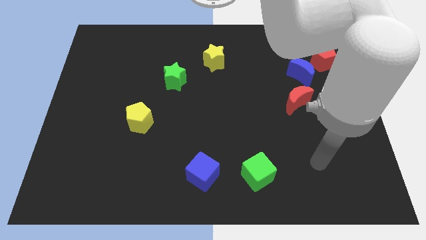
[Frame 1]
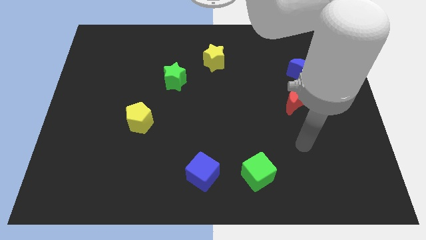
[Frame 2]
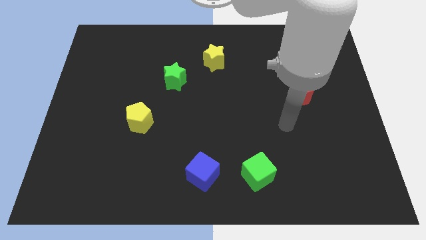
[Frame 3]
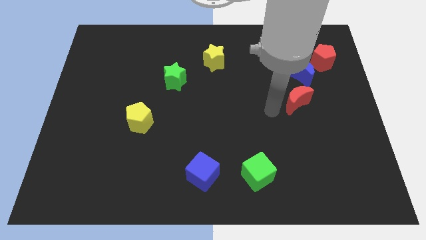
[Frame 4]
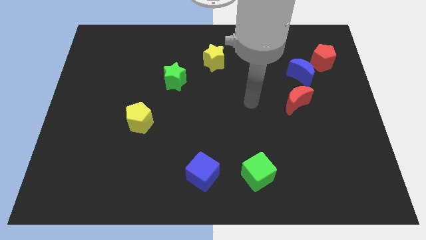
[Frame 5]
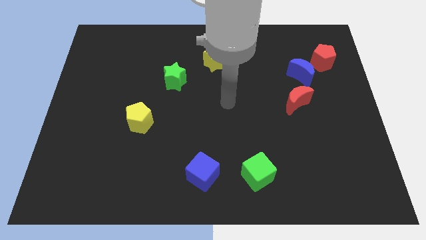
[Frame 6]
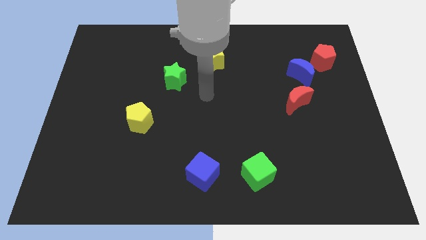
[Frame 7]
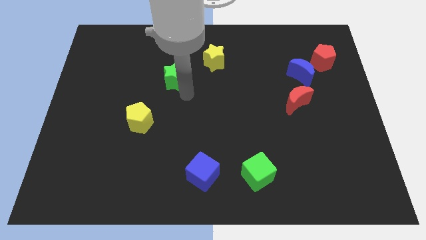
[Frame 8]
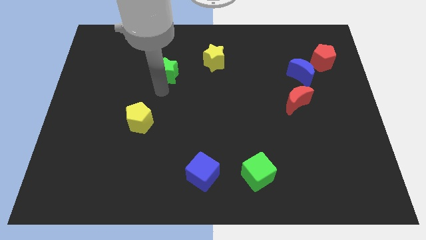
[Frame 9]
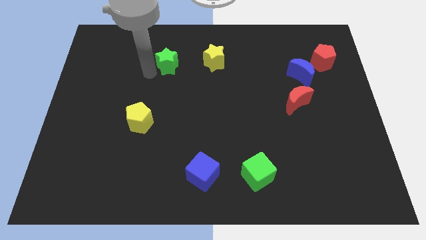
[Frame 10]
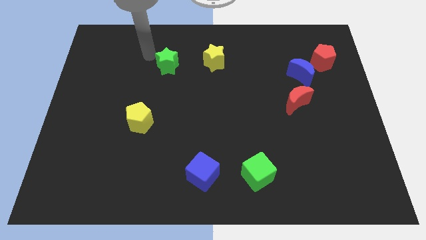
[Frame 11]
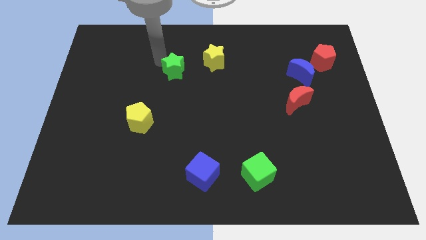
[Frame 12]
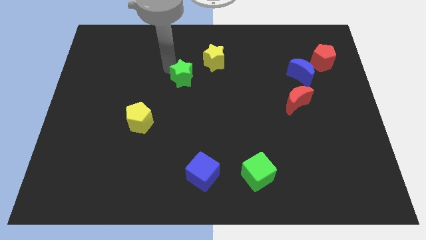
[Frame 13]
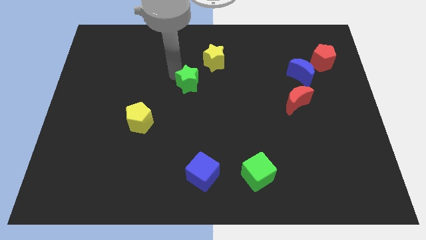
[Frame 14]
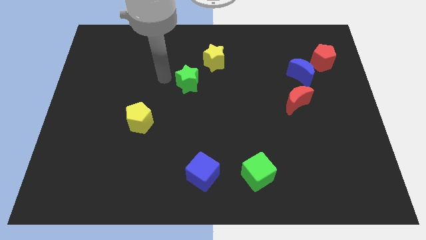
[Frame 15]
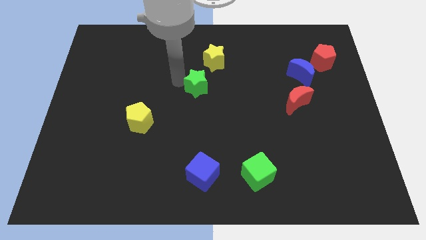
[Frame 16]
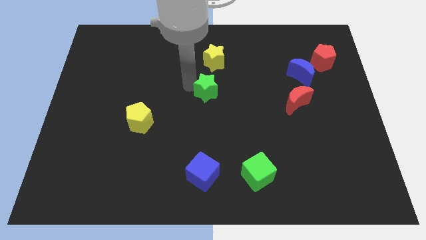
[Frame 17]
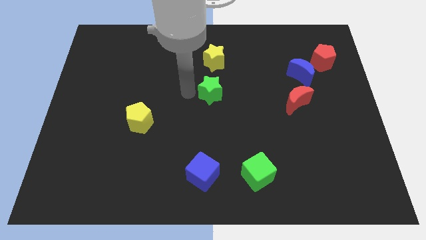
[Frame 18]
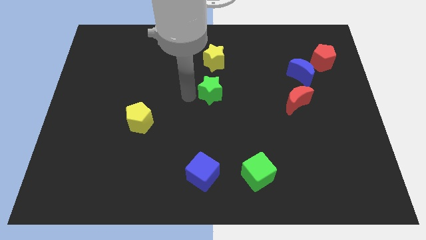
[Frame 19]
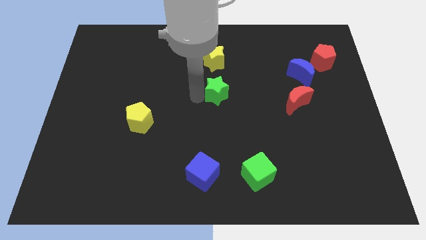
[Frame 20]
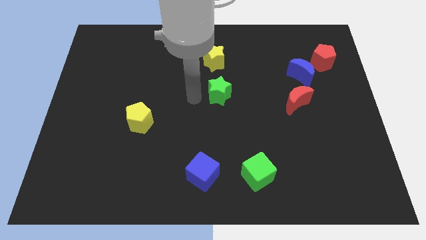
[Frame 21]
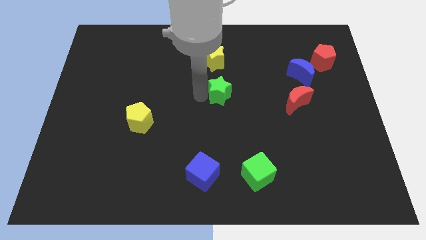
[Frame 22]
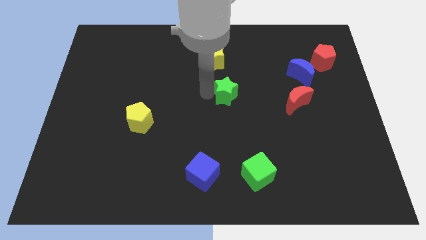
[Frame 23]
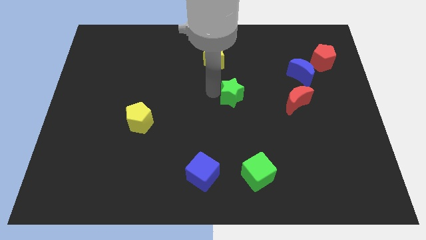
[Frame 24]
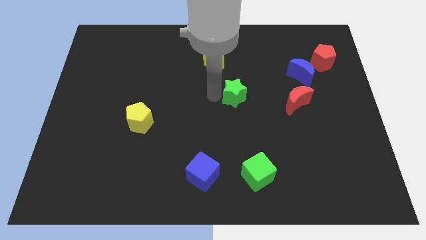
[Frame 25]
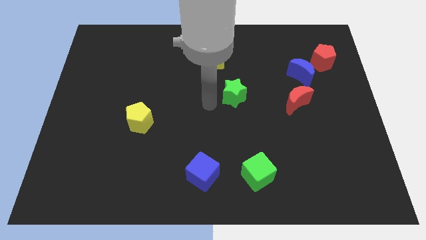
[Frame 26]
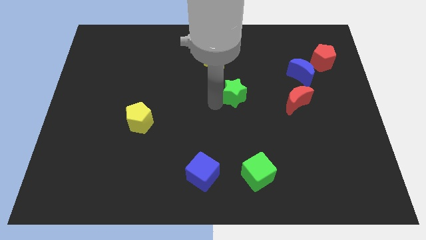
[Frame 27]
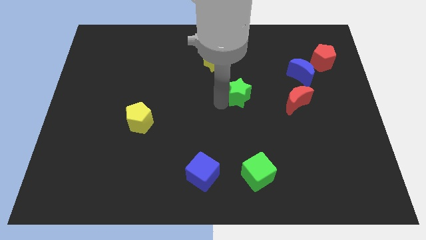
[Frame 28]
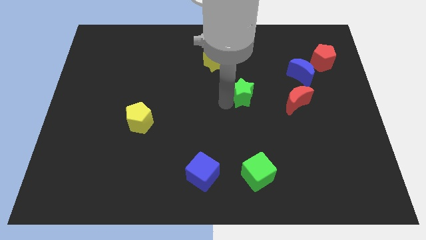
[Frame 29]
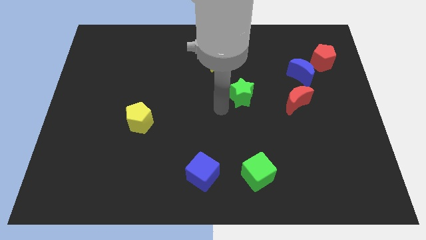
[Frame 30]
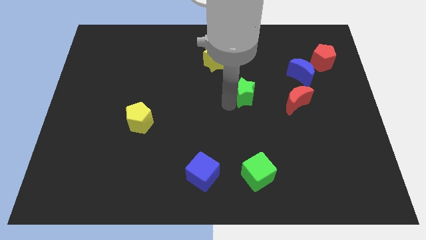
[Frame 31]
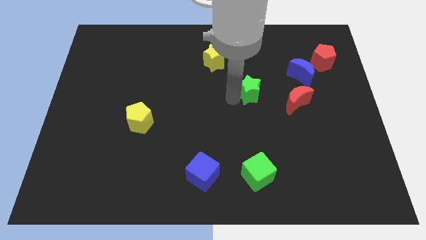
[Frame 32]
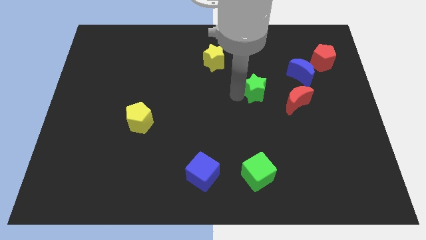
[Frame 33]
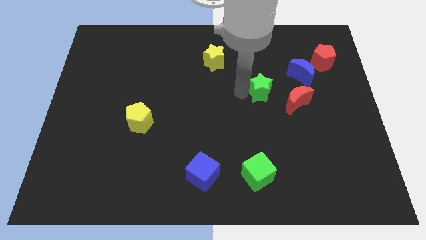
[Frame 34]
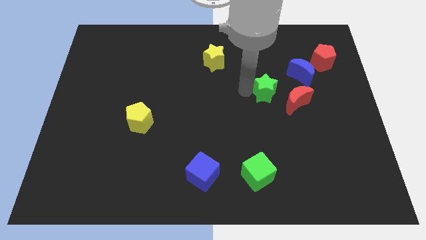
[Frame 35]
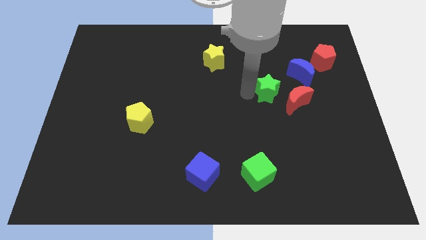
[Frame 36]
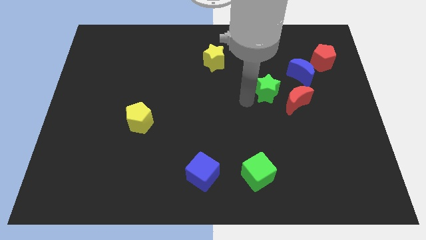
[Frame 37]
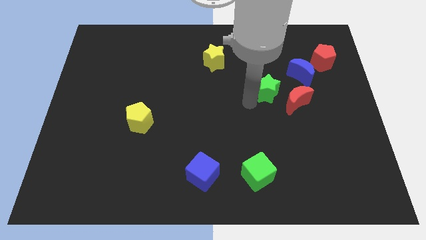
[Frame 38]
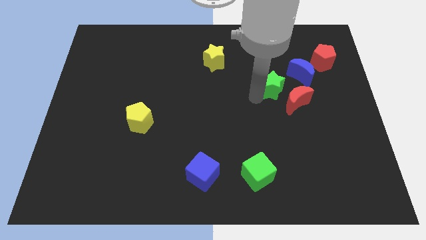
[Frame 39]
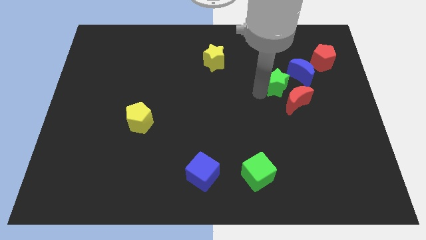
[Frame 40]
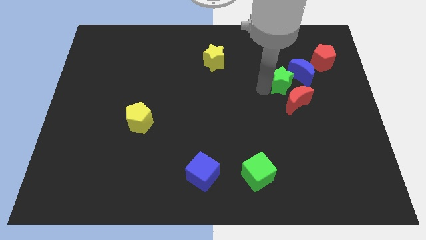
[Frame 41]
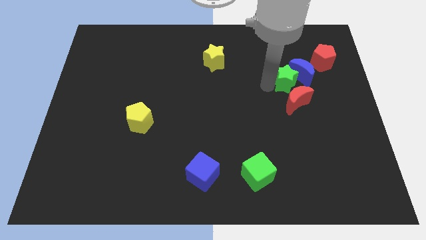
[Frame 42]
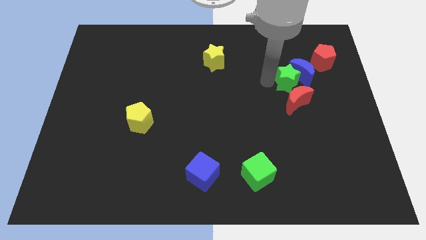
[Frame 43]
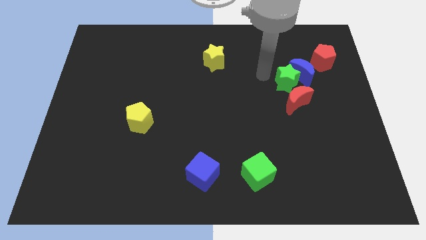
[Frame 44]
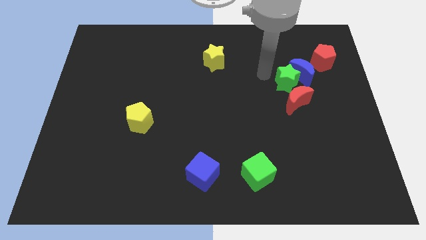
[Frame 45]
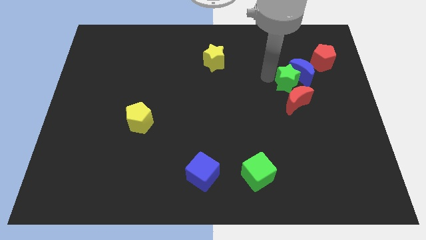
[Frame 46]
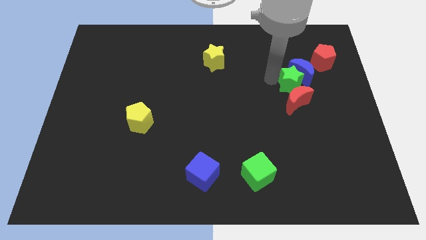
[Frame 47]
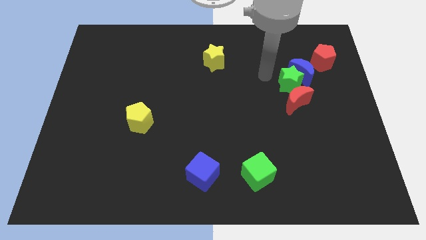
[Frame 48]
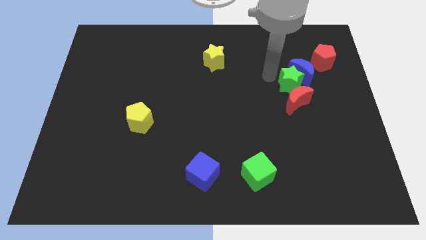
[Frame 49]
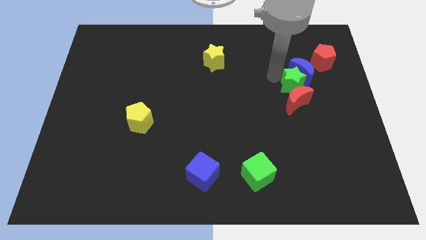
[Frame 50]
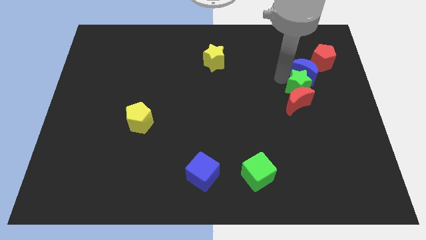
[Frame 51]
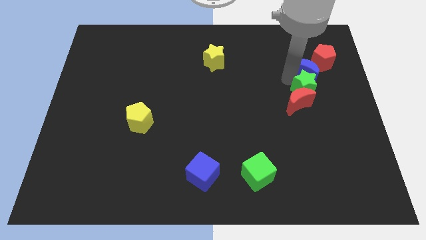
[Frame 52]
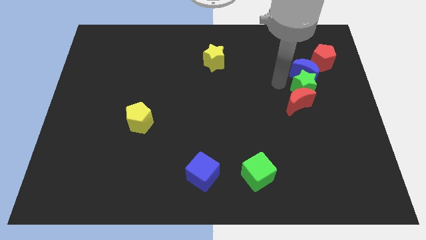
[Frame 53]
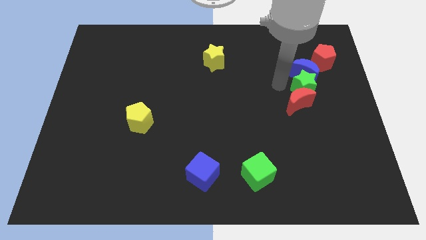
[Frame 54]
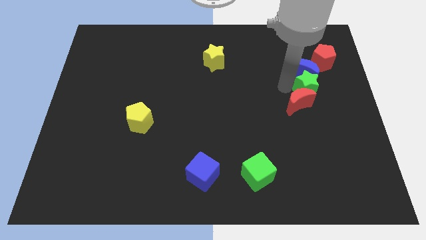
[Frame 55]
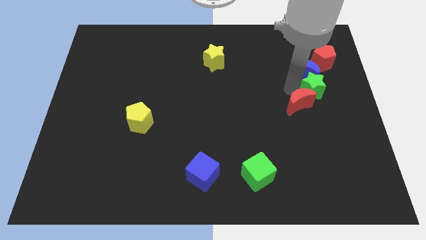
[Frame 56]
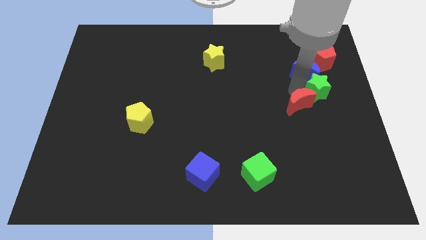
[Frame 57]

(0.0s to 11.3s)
put the green star to the center right

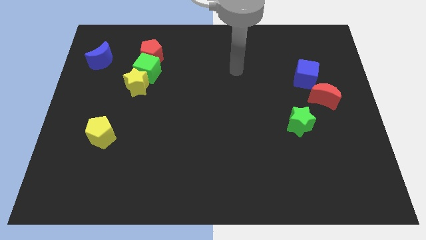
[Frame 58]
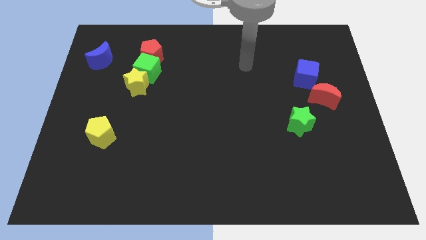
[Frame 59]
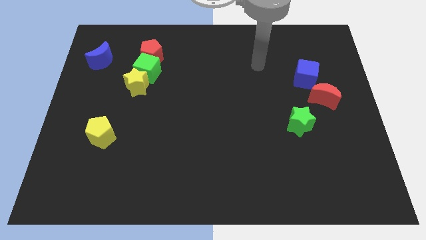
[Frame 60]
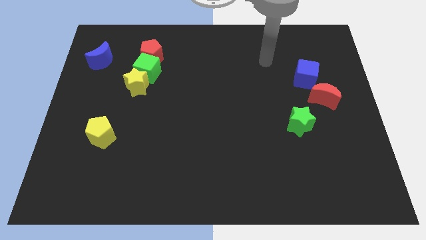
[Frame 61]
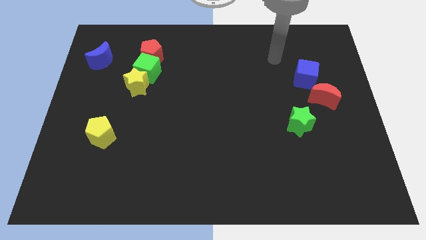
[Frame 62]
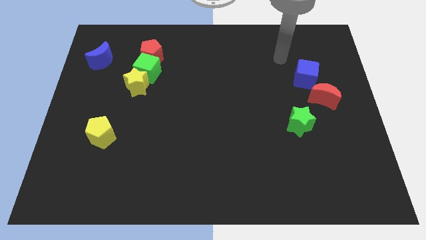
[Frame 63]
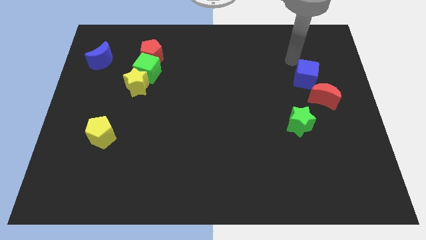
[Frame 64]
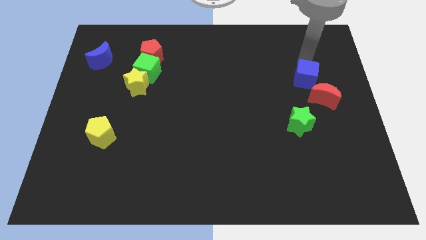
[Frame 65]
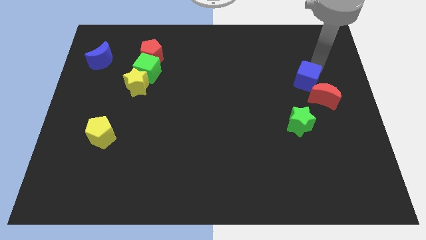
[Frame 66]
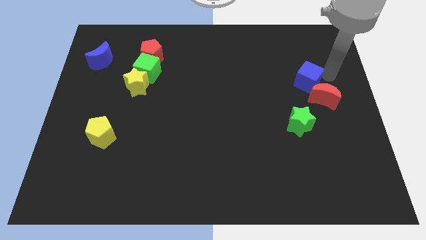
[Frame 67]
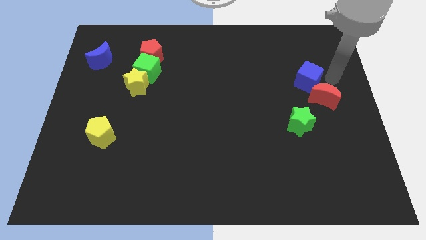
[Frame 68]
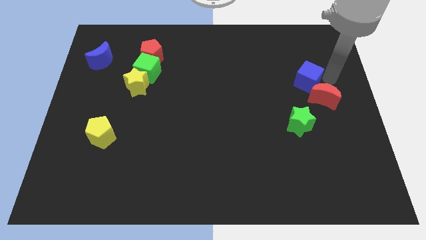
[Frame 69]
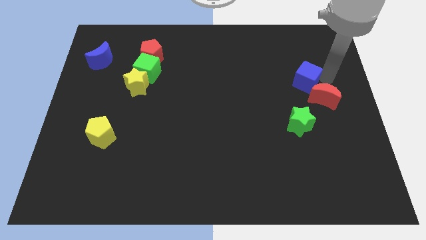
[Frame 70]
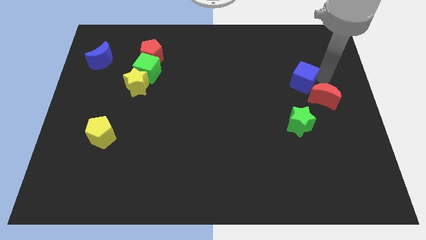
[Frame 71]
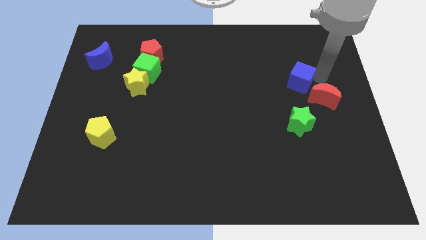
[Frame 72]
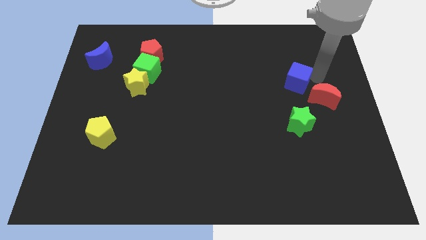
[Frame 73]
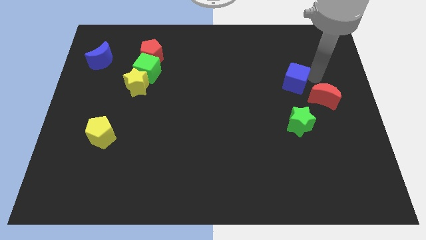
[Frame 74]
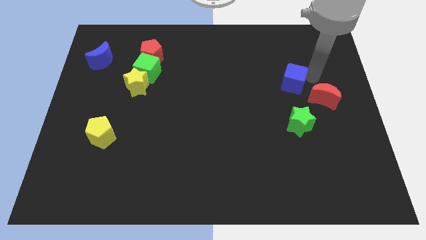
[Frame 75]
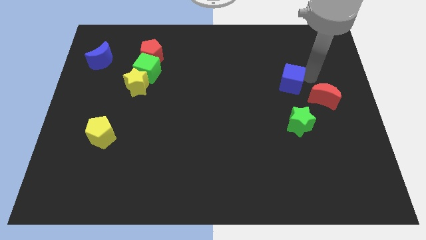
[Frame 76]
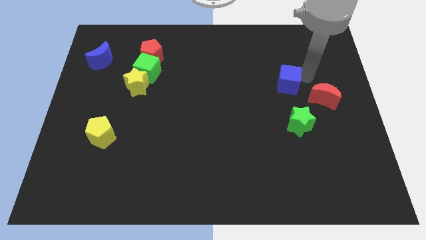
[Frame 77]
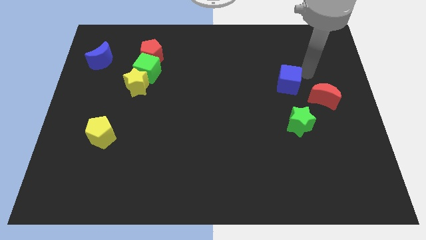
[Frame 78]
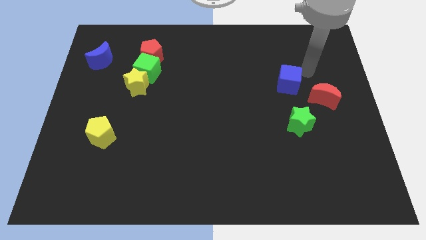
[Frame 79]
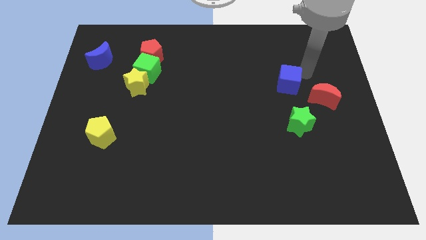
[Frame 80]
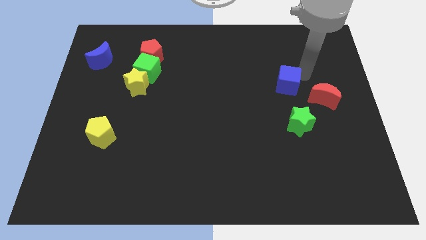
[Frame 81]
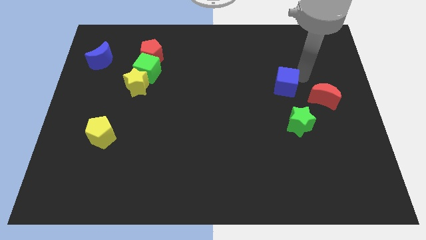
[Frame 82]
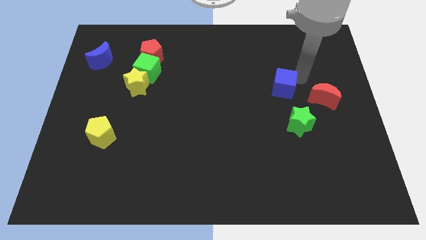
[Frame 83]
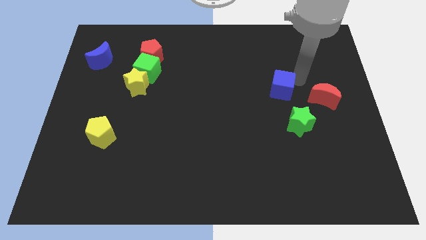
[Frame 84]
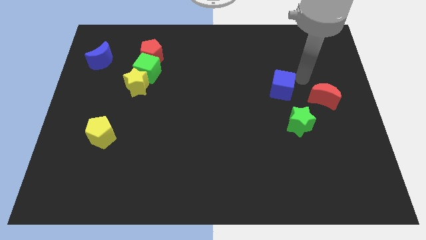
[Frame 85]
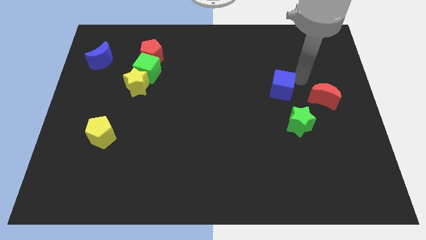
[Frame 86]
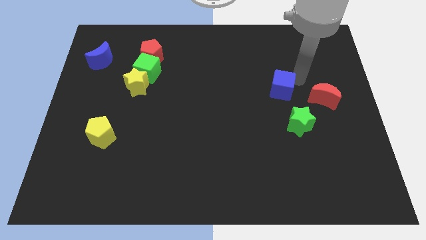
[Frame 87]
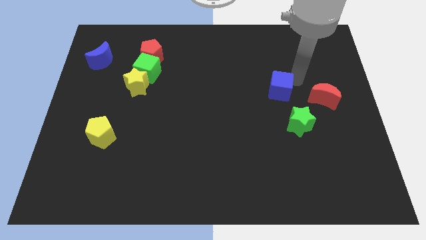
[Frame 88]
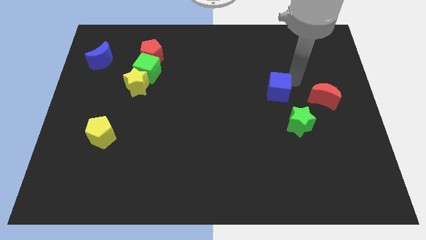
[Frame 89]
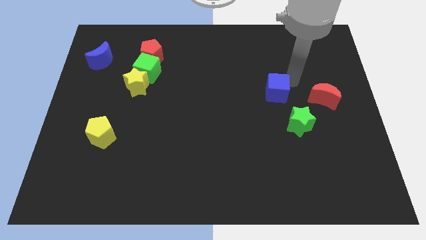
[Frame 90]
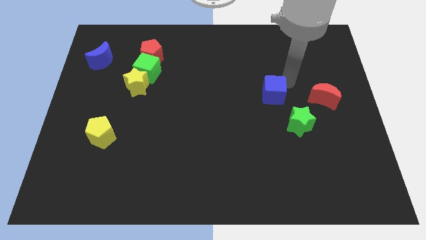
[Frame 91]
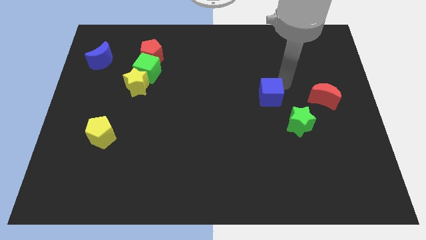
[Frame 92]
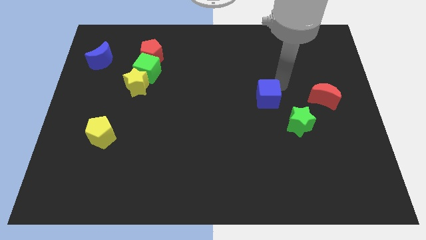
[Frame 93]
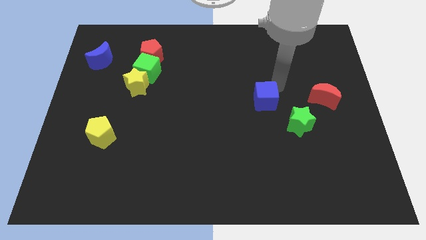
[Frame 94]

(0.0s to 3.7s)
move the blue cube to the center of the board
